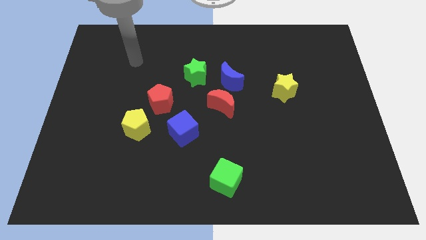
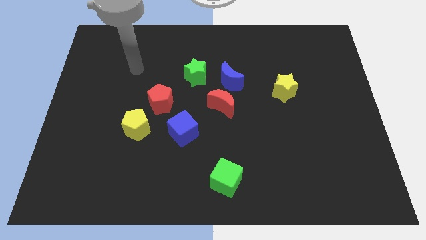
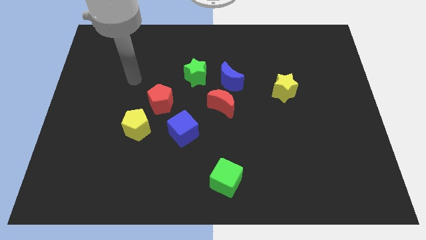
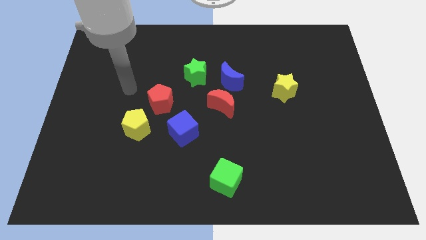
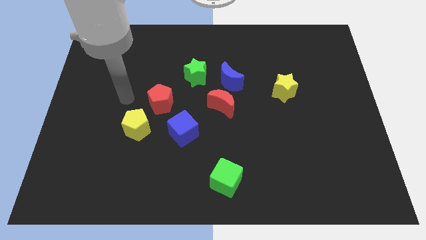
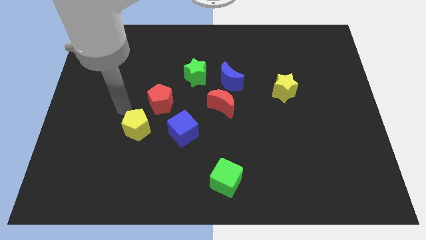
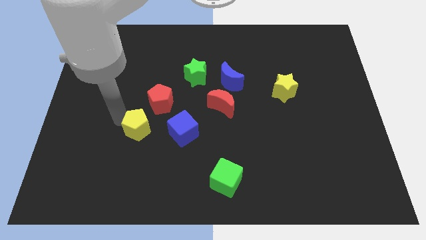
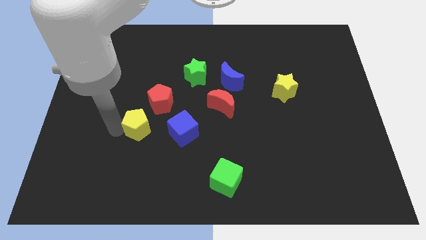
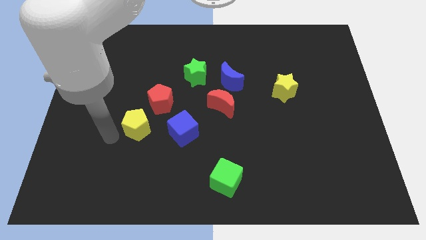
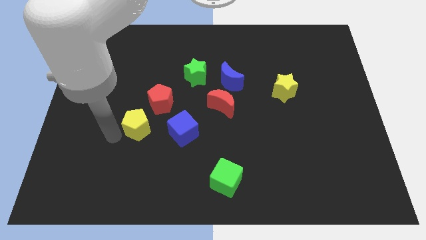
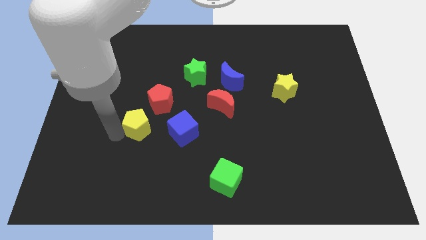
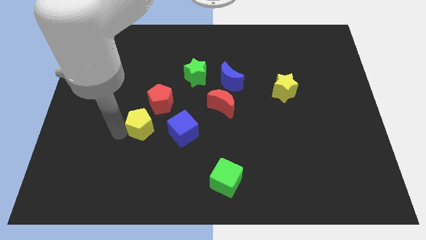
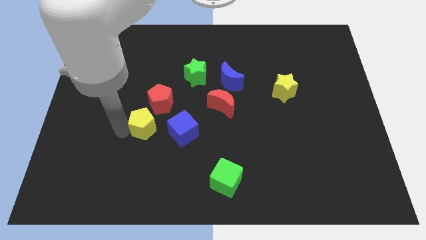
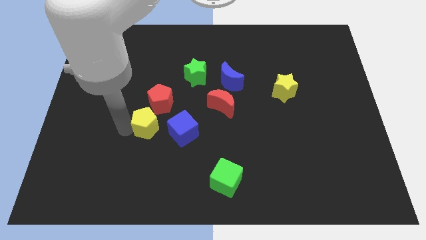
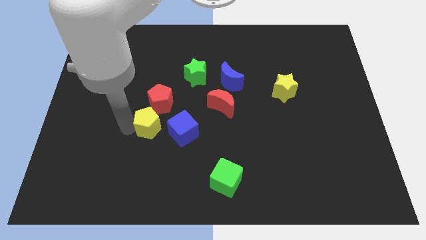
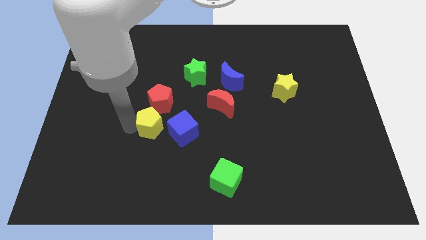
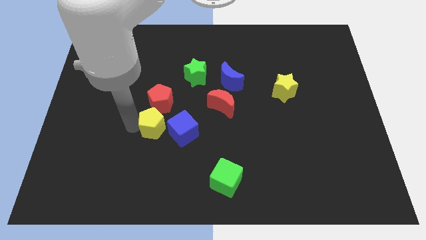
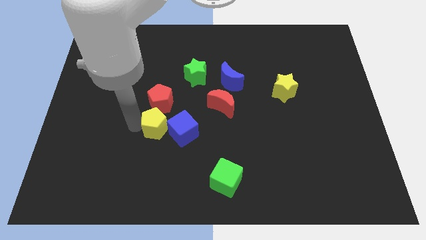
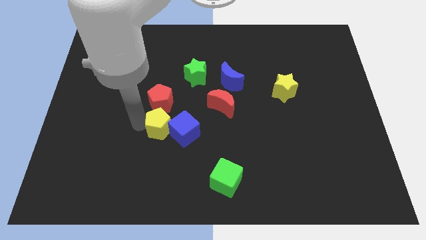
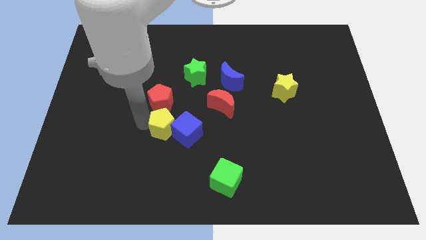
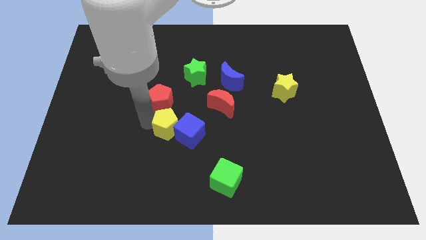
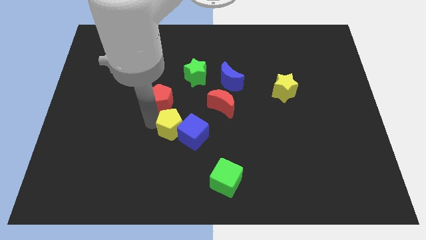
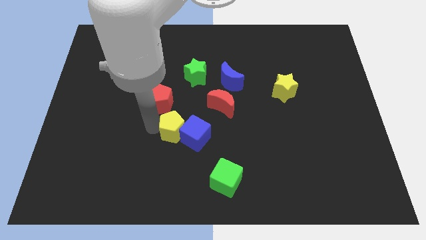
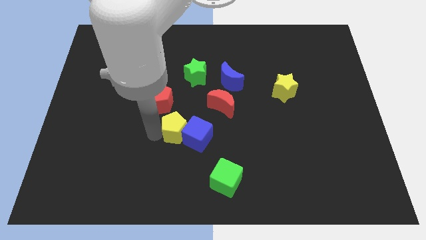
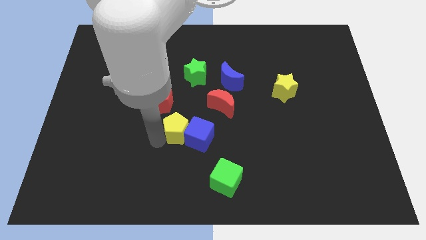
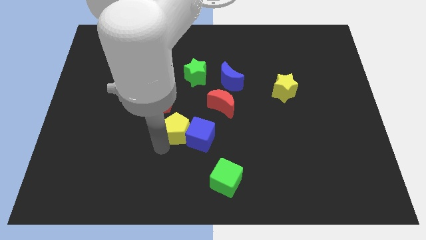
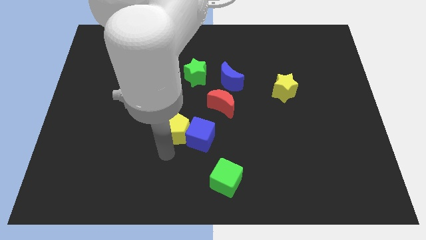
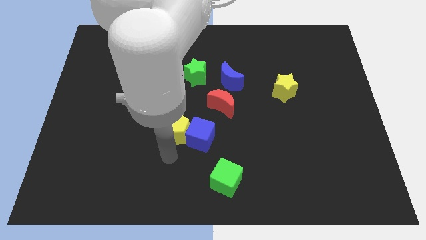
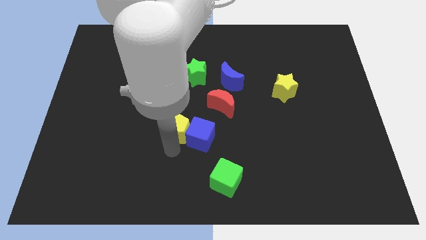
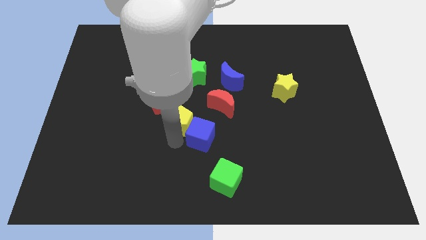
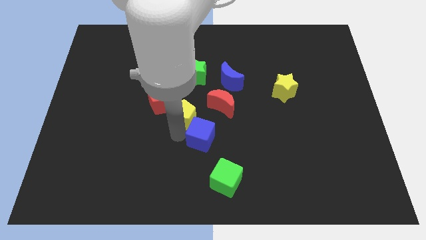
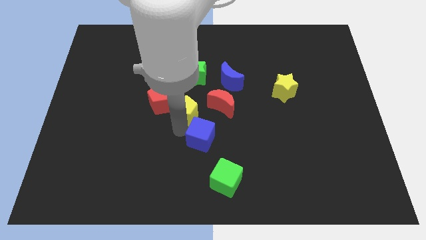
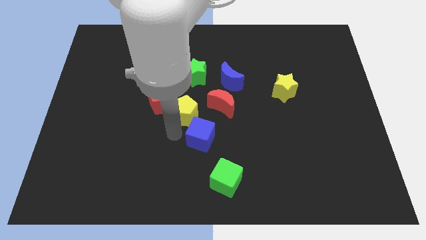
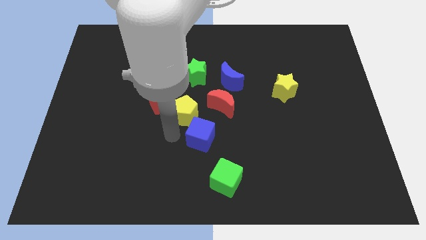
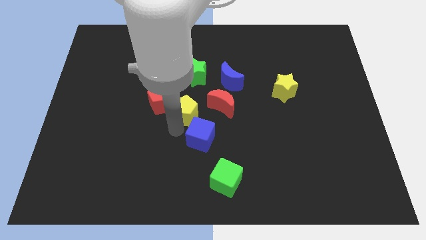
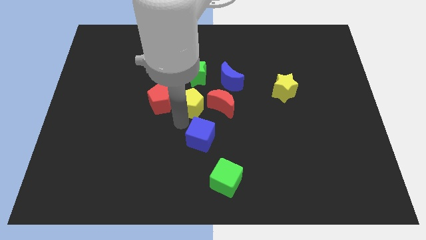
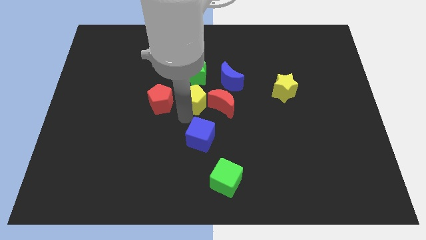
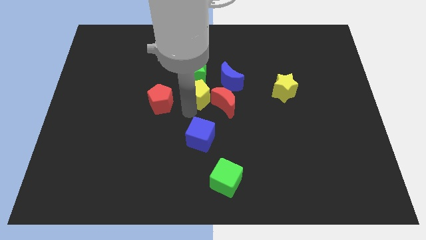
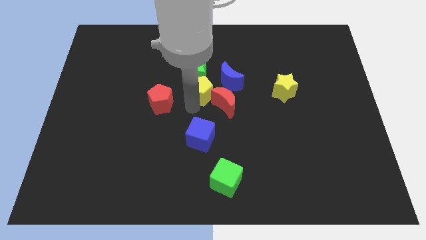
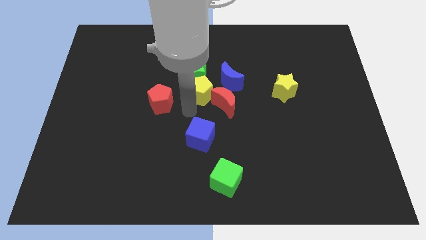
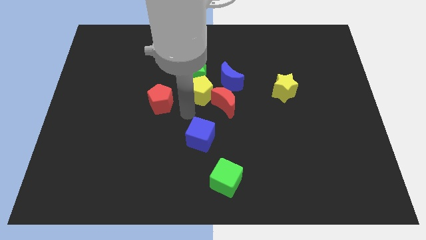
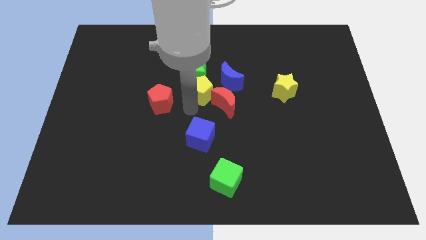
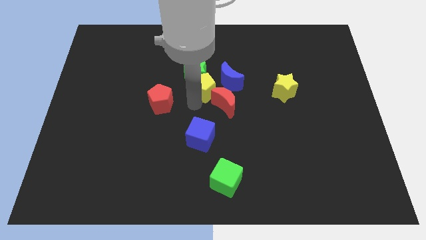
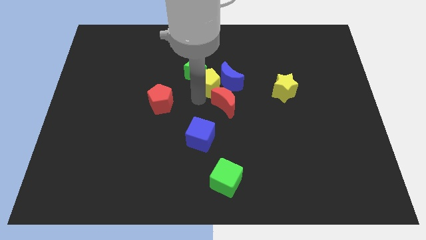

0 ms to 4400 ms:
move the yellow pentagon up and to the right diagonally

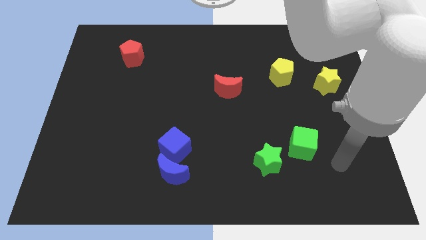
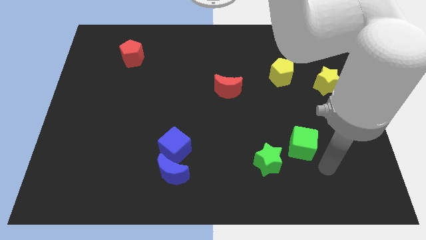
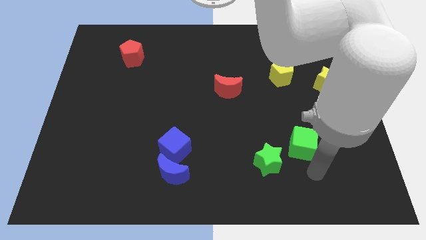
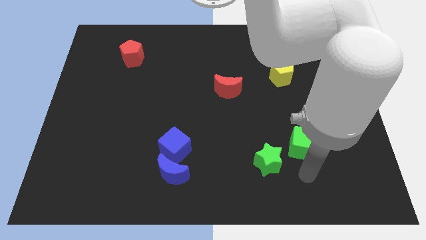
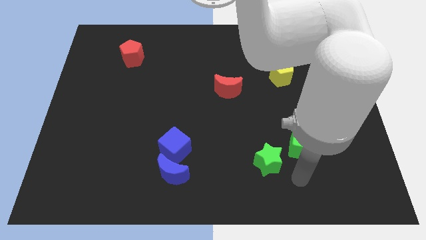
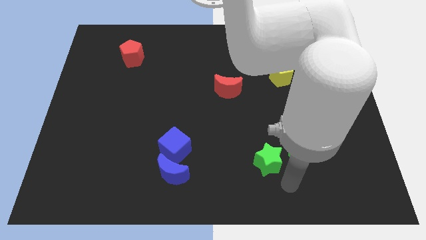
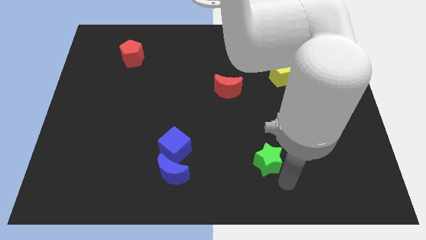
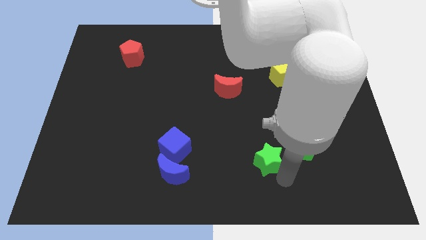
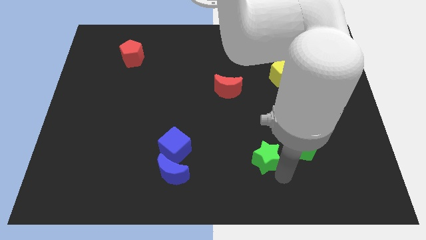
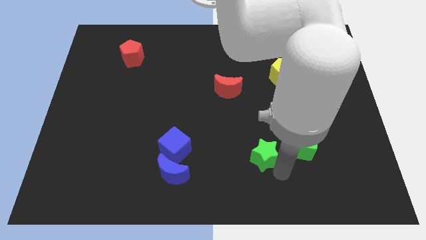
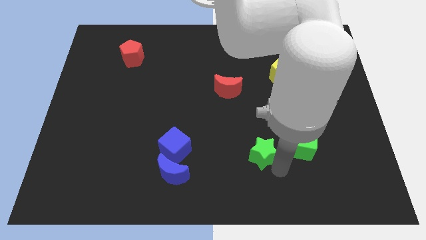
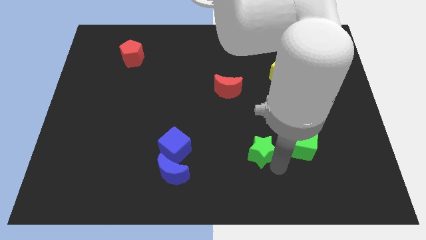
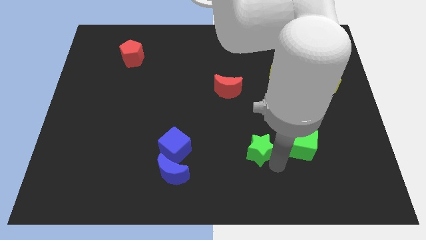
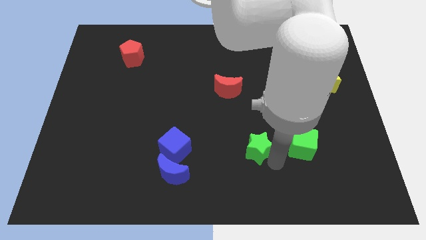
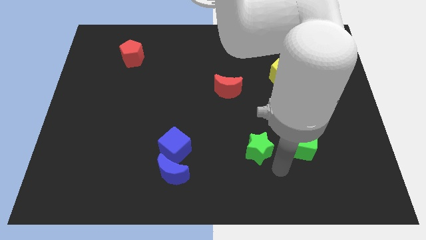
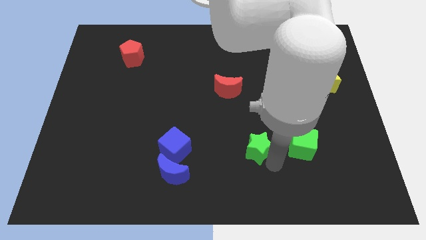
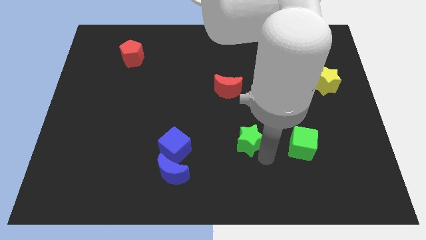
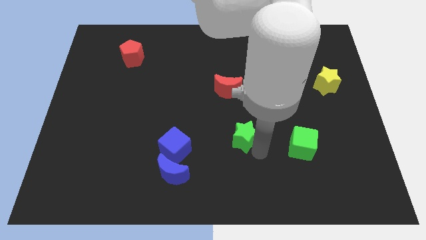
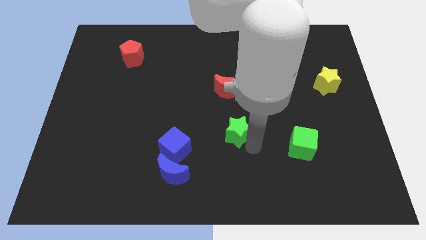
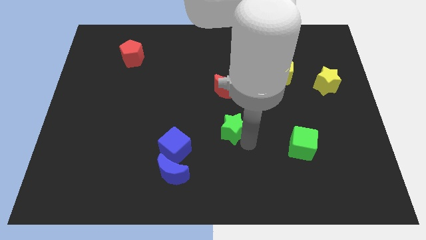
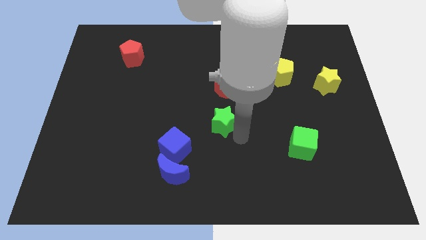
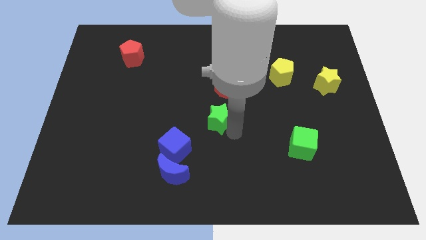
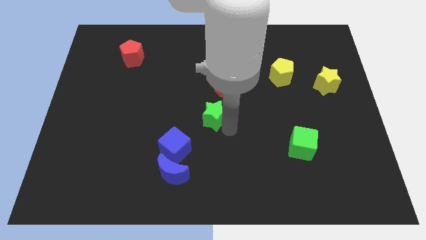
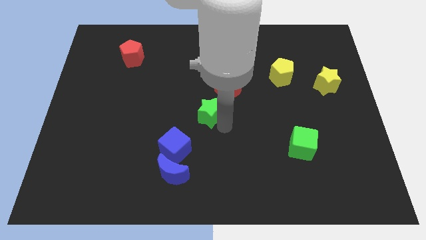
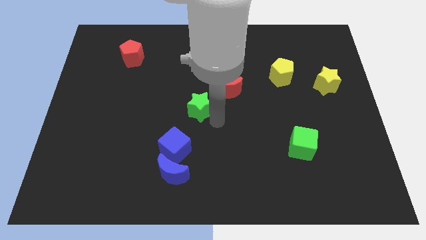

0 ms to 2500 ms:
slide the green star up and then to the left

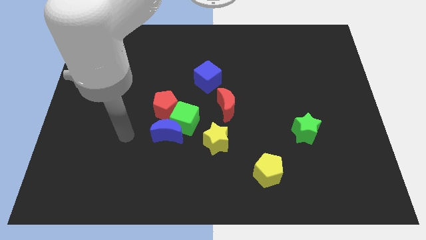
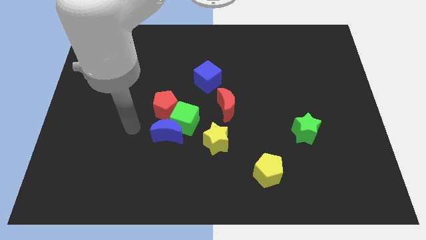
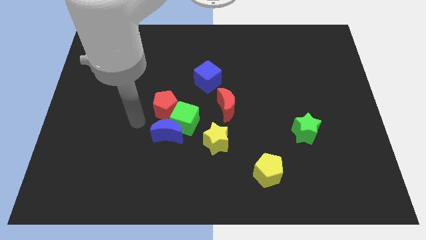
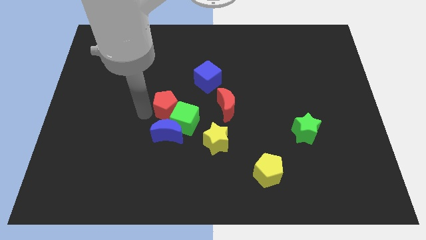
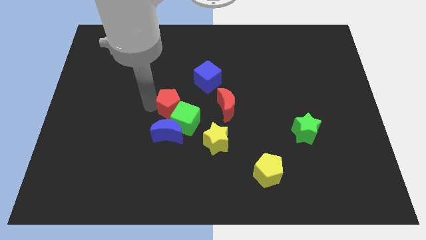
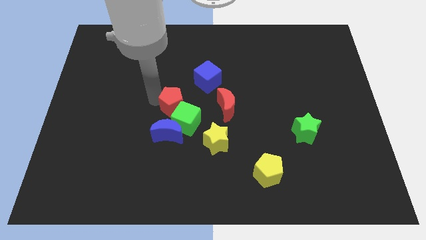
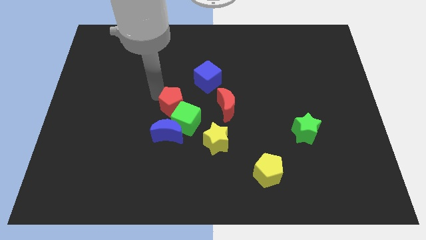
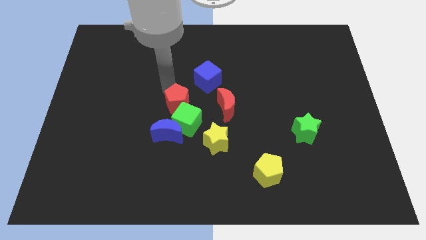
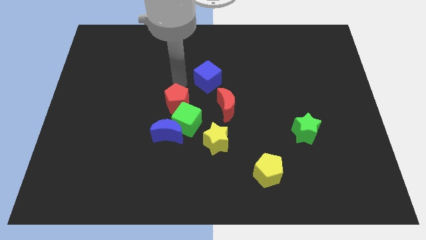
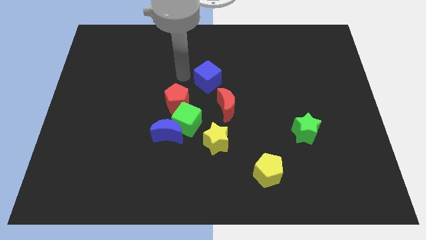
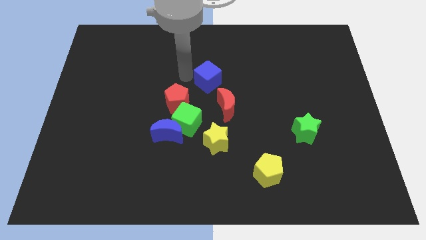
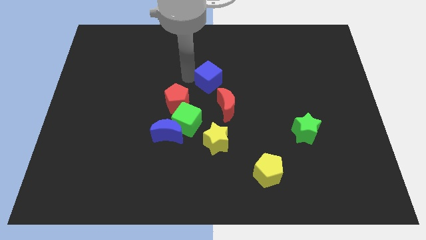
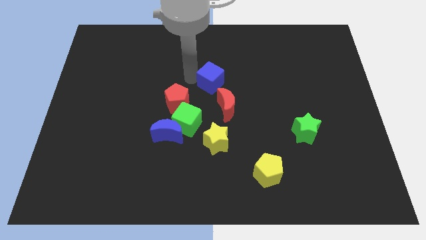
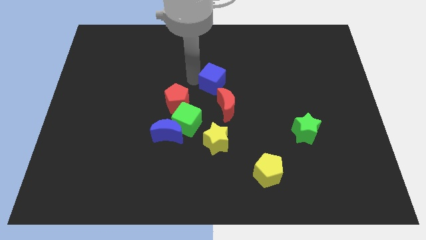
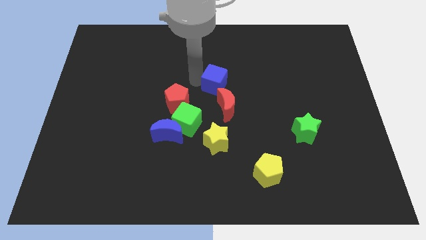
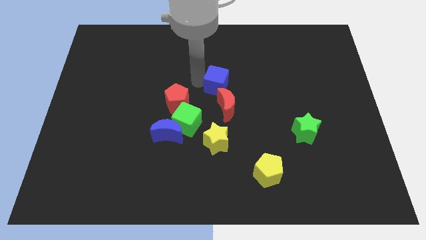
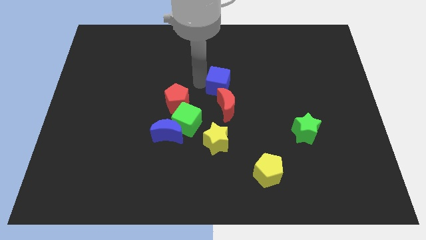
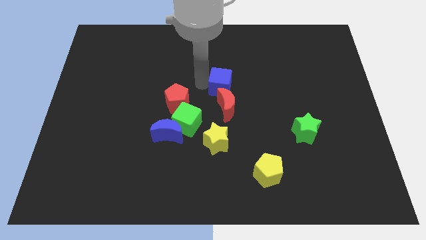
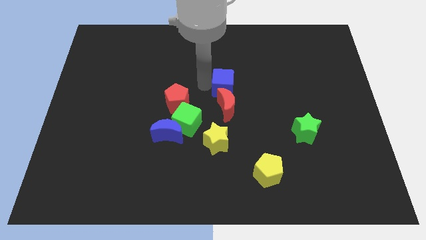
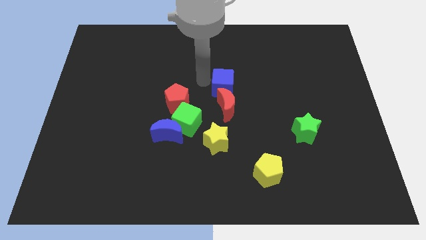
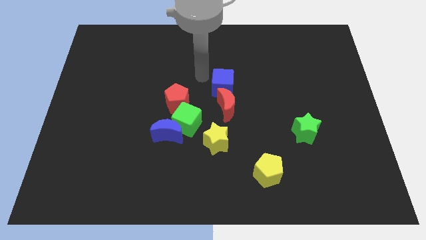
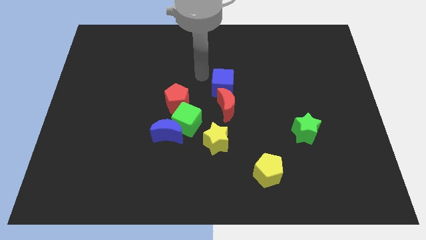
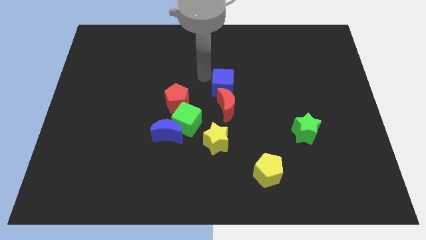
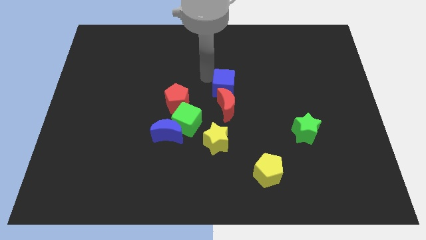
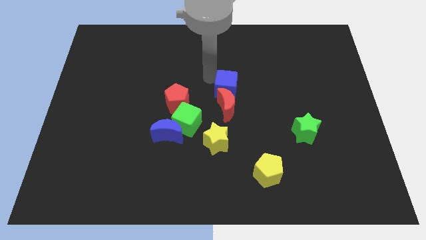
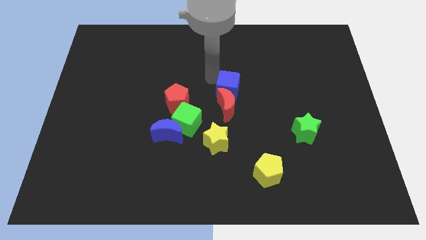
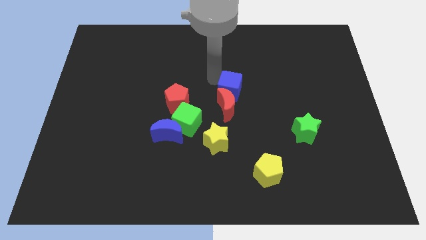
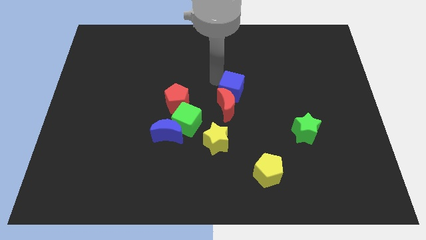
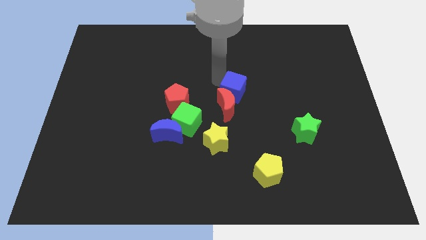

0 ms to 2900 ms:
slide the blue cube a bit diagonally down and to the right
